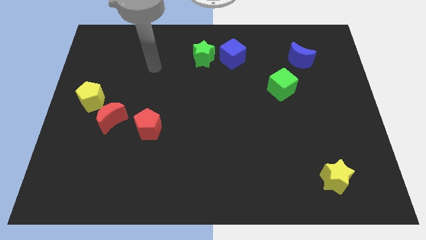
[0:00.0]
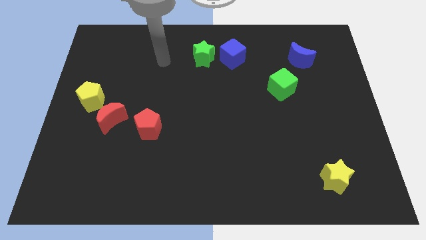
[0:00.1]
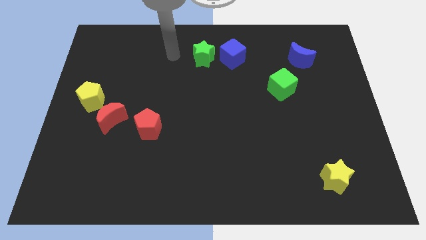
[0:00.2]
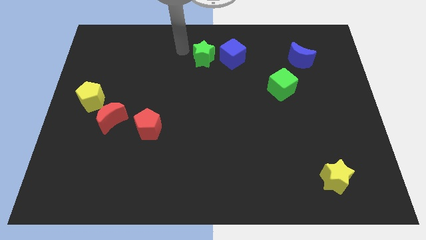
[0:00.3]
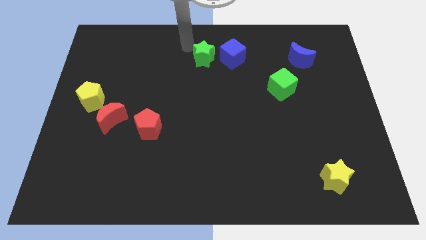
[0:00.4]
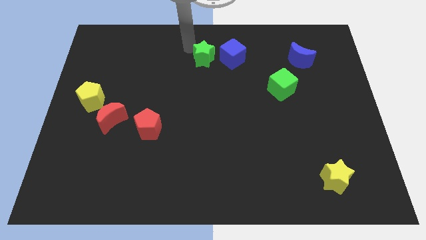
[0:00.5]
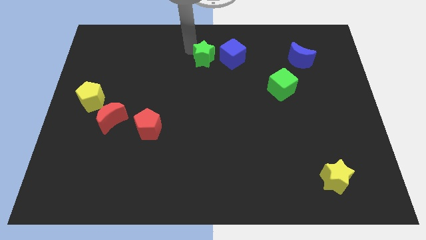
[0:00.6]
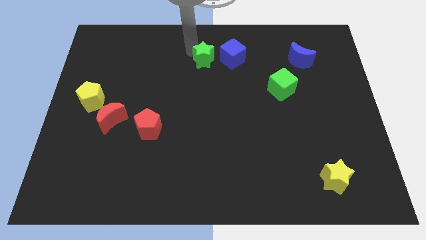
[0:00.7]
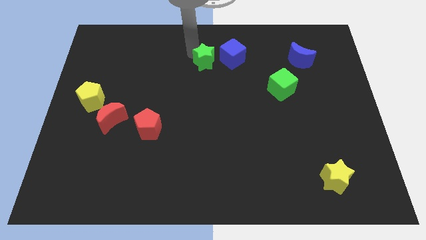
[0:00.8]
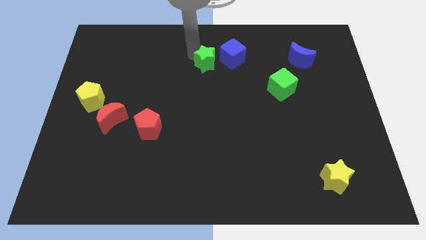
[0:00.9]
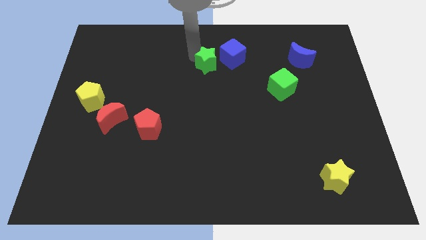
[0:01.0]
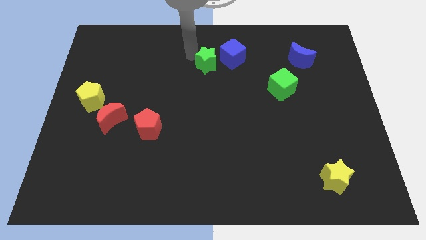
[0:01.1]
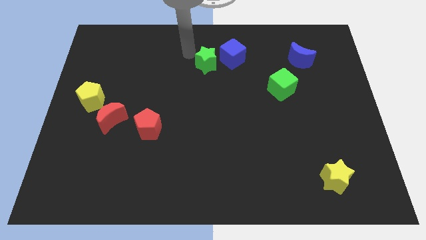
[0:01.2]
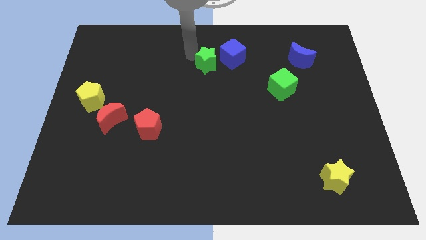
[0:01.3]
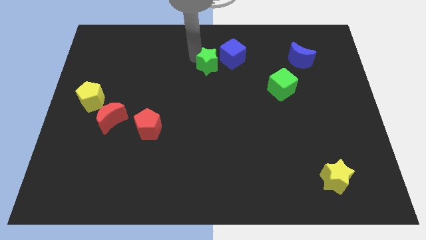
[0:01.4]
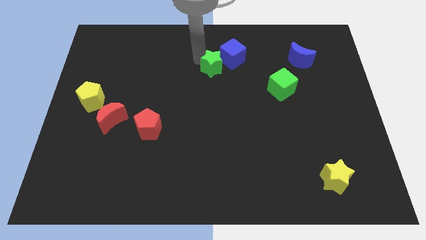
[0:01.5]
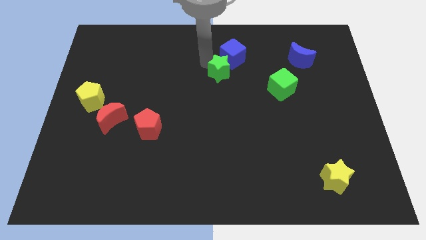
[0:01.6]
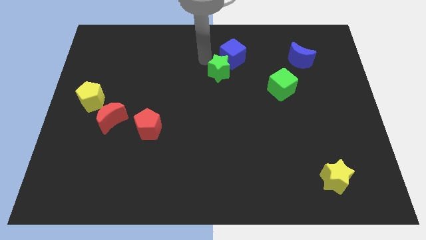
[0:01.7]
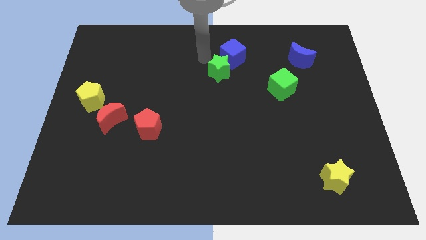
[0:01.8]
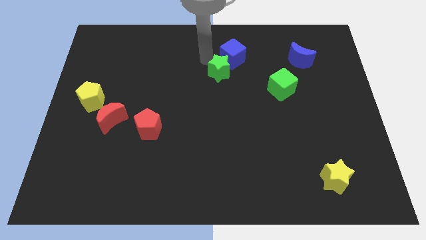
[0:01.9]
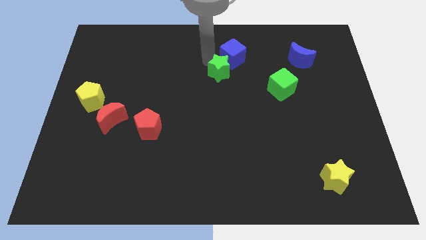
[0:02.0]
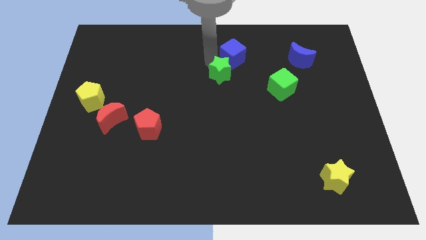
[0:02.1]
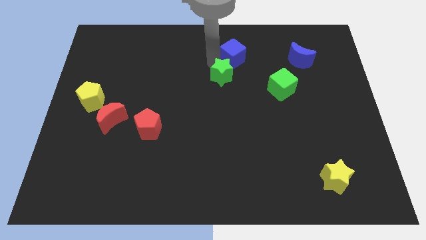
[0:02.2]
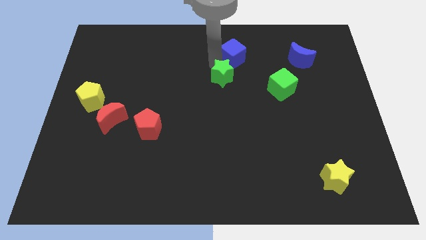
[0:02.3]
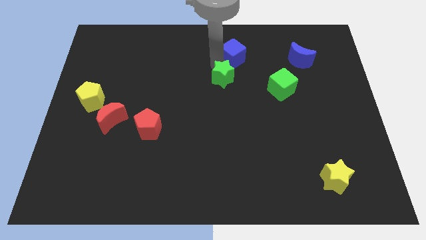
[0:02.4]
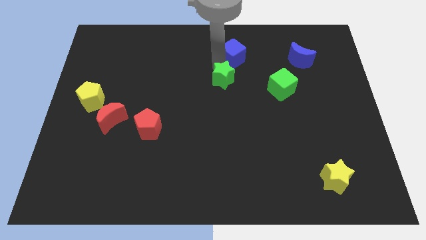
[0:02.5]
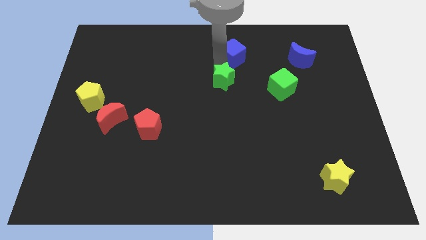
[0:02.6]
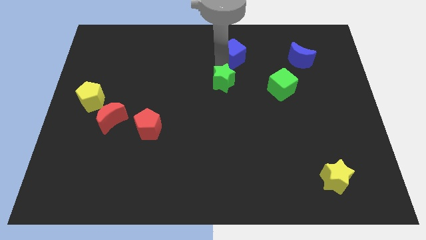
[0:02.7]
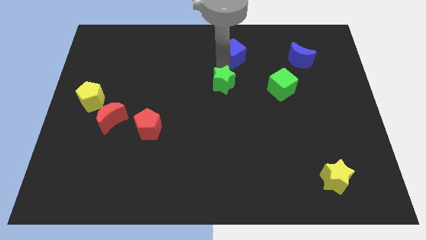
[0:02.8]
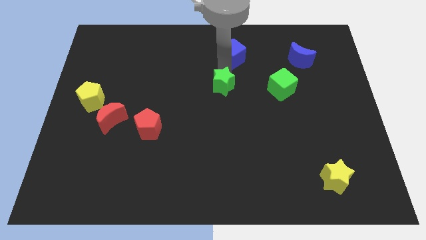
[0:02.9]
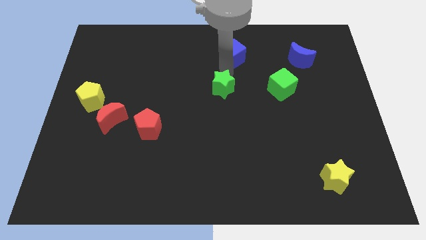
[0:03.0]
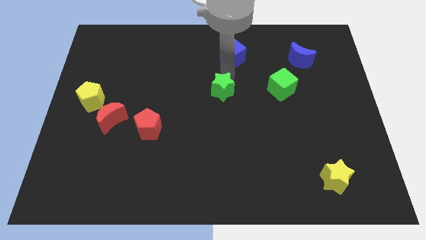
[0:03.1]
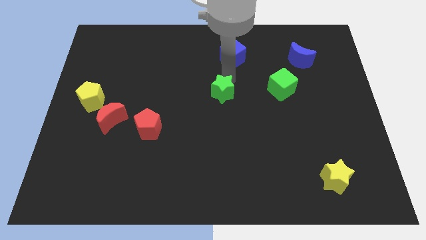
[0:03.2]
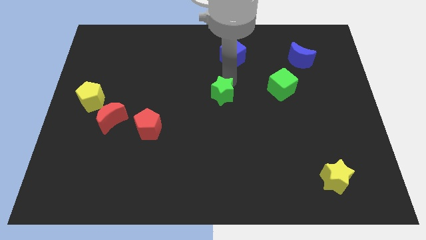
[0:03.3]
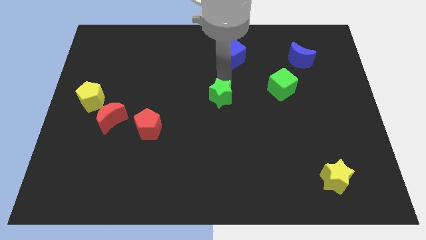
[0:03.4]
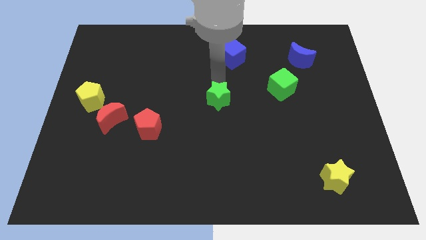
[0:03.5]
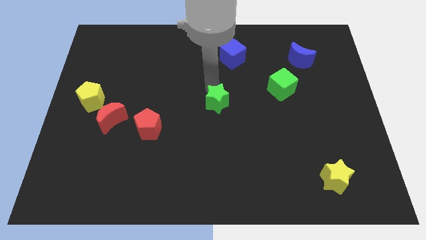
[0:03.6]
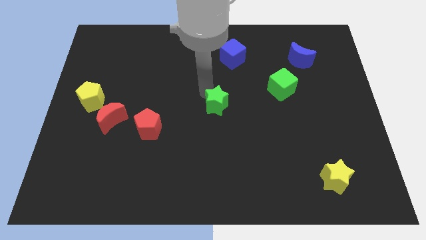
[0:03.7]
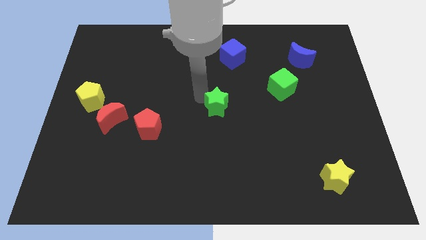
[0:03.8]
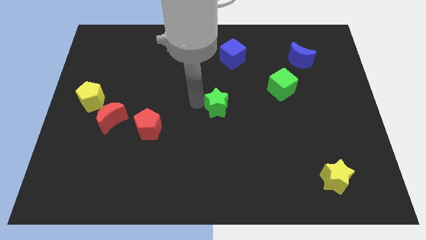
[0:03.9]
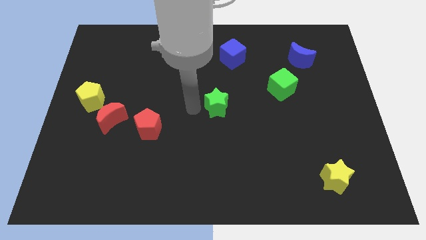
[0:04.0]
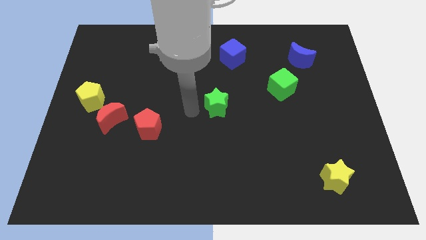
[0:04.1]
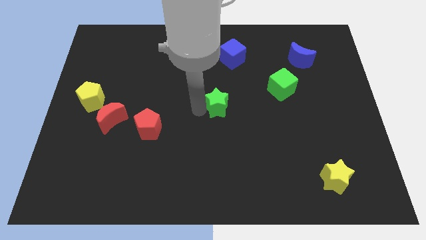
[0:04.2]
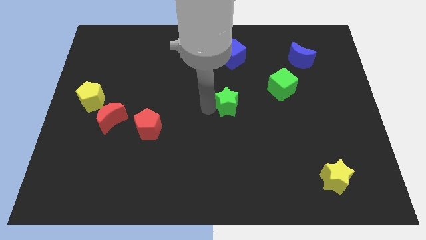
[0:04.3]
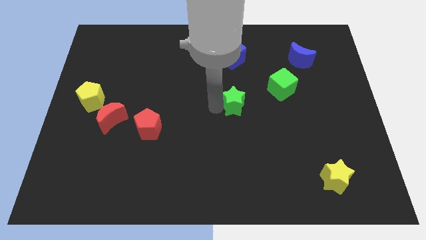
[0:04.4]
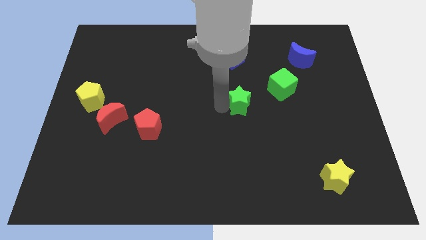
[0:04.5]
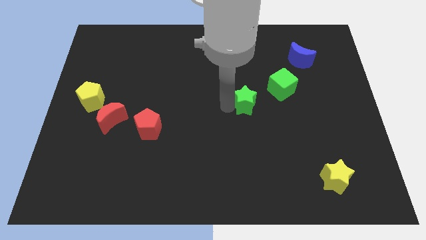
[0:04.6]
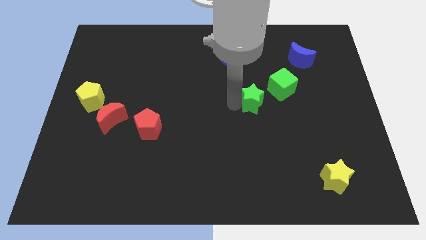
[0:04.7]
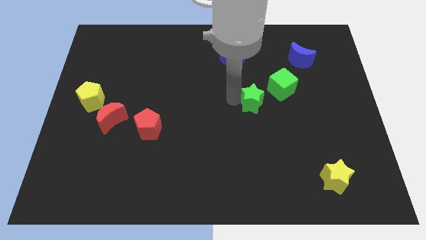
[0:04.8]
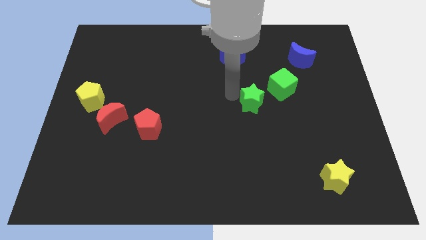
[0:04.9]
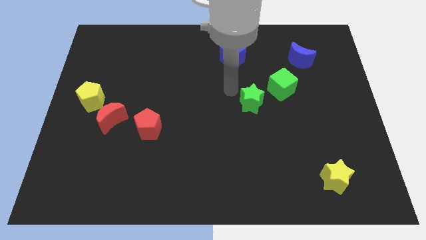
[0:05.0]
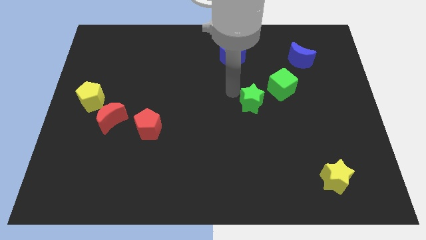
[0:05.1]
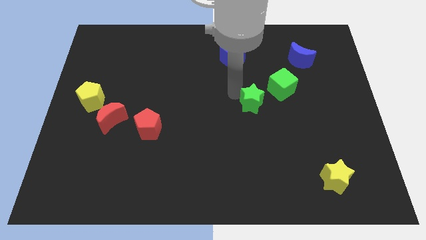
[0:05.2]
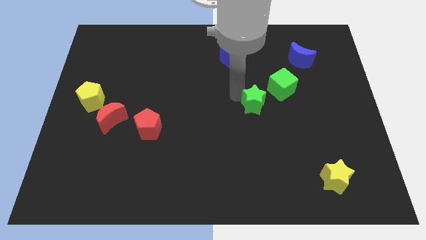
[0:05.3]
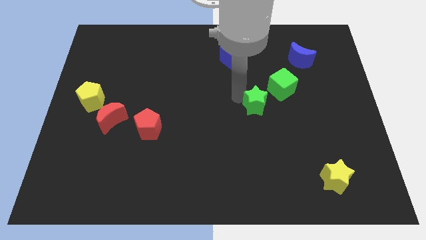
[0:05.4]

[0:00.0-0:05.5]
move the green star diagonally downwards and to the right

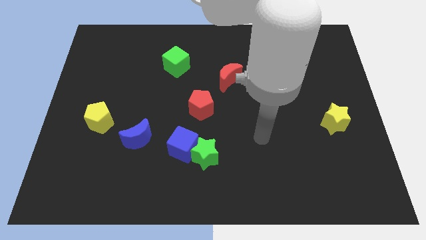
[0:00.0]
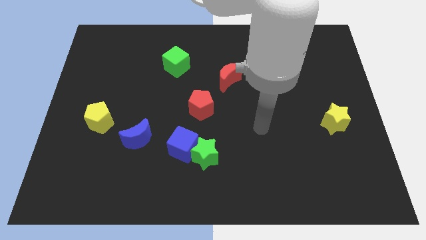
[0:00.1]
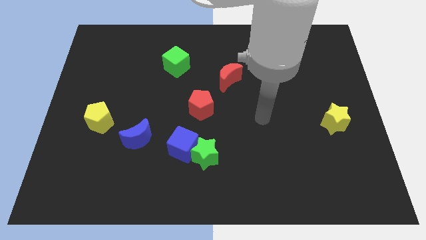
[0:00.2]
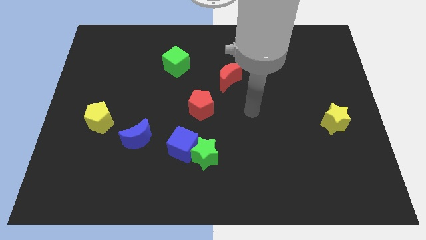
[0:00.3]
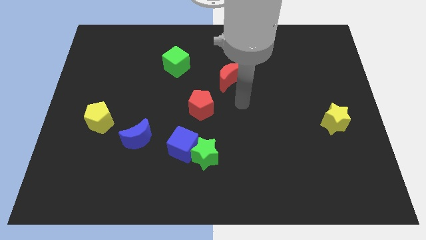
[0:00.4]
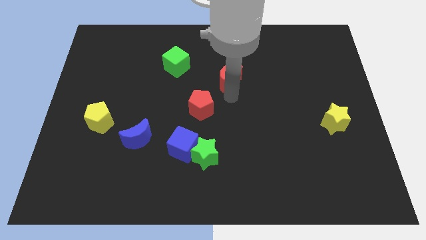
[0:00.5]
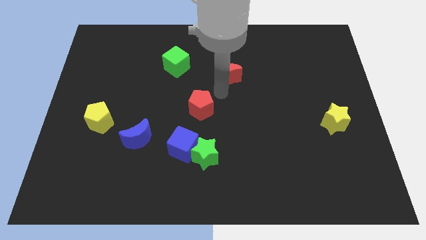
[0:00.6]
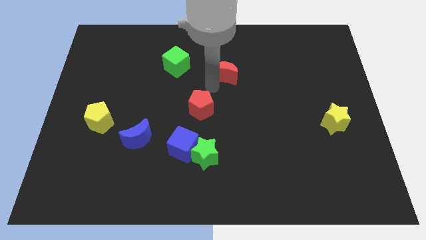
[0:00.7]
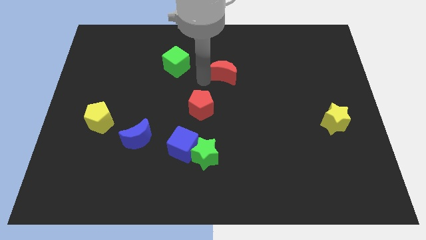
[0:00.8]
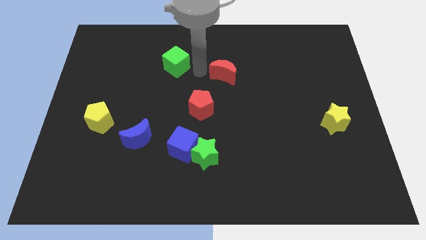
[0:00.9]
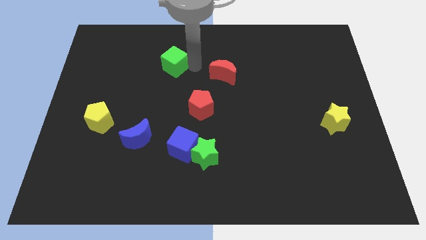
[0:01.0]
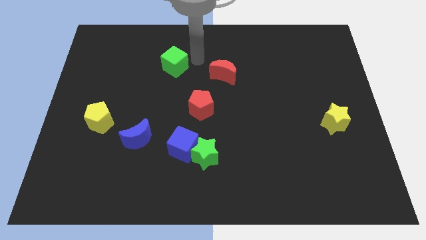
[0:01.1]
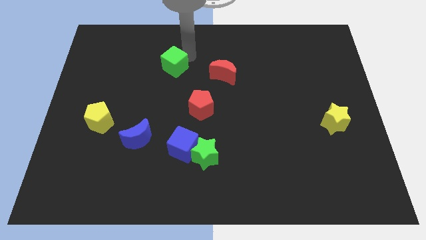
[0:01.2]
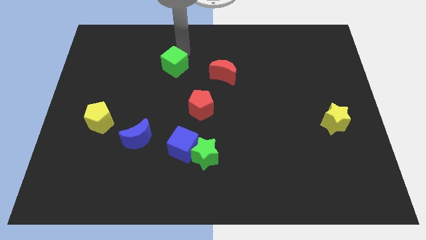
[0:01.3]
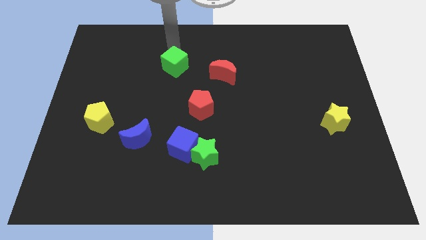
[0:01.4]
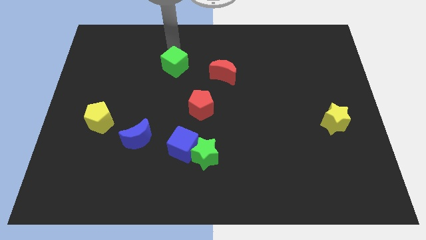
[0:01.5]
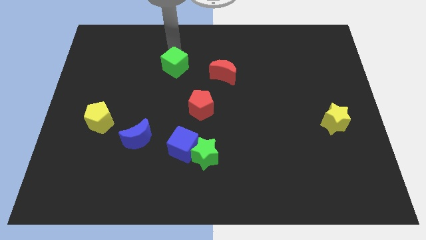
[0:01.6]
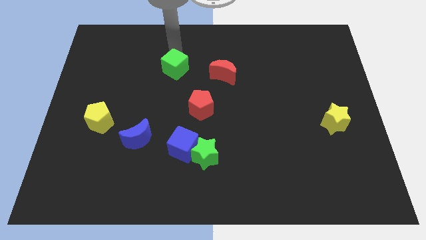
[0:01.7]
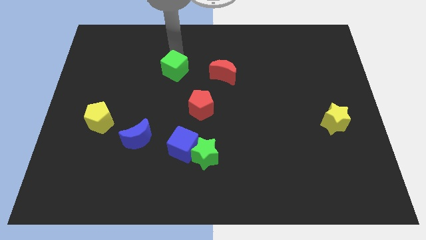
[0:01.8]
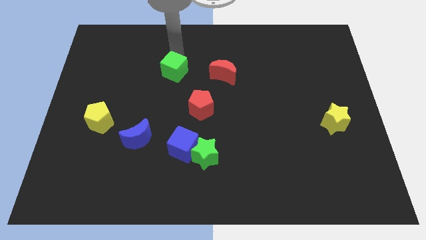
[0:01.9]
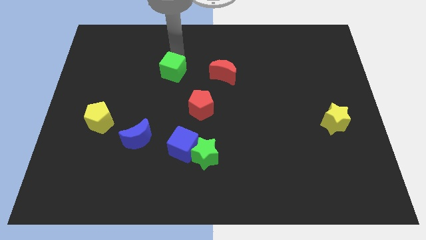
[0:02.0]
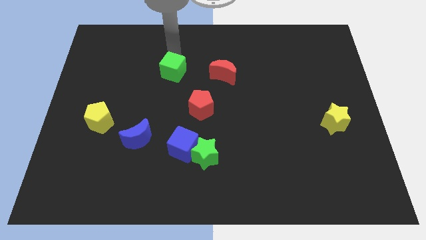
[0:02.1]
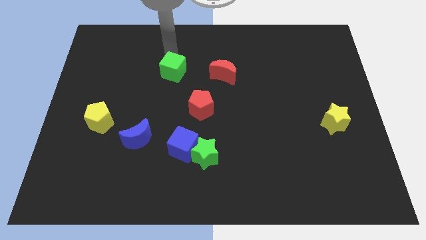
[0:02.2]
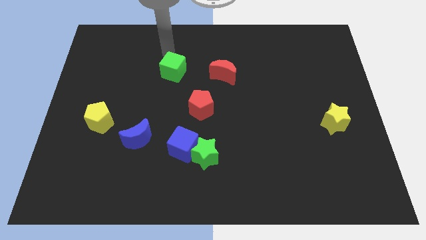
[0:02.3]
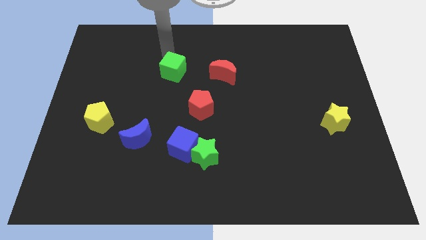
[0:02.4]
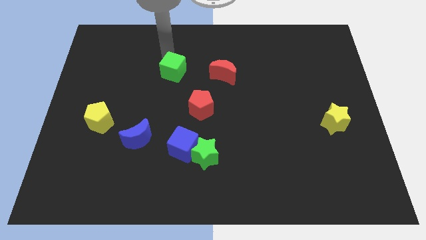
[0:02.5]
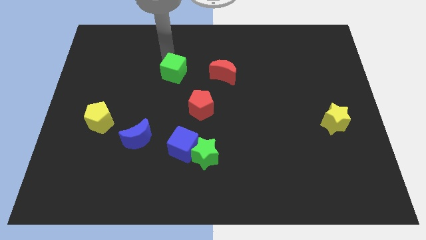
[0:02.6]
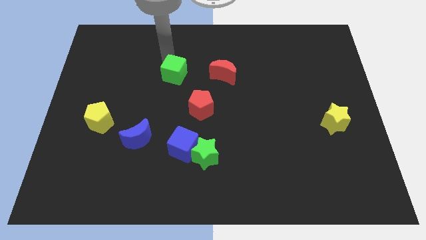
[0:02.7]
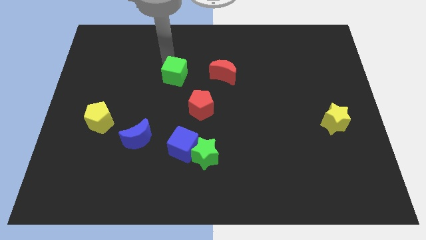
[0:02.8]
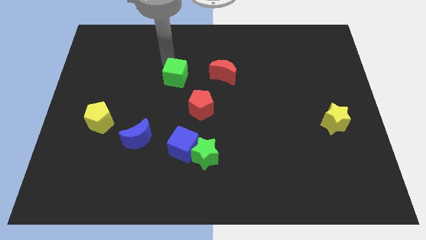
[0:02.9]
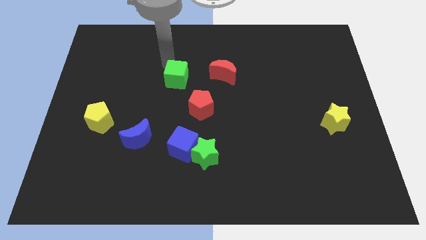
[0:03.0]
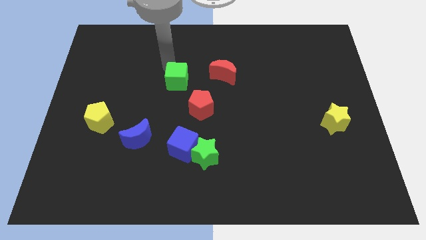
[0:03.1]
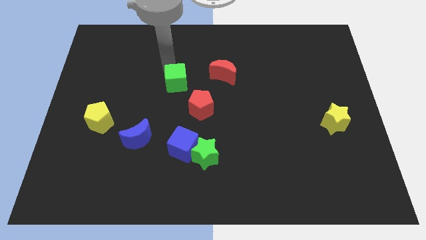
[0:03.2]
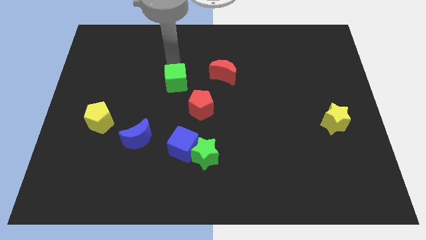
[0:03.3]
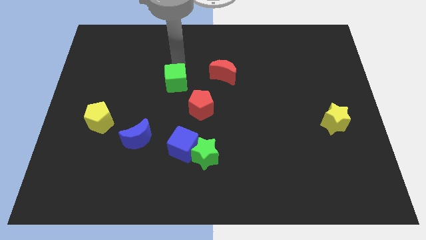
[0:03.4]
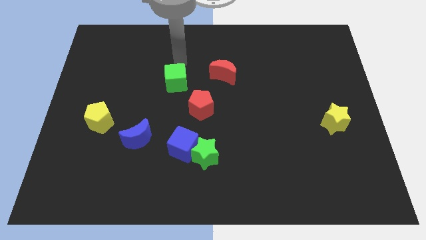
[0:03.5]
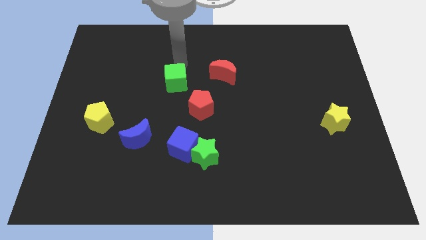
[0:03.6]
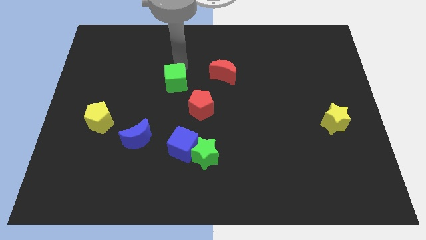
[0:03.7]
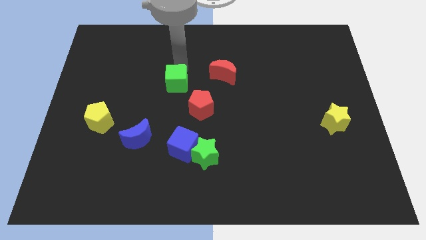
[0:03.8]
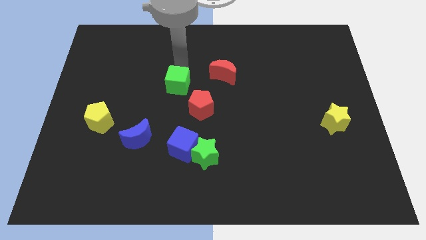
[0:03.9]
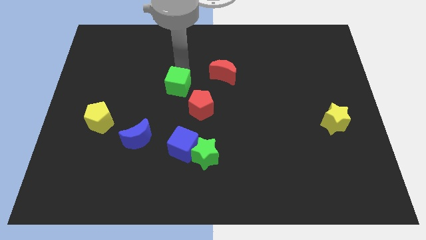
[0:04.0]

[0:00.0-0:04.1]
slightly slide the green cube down
